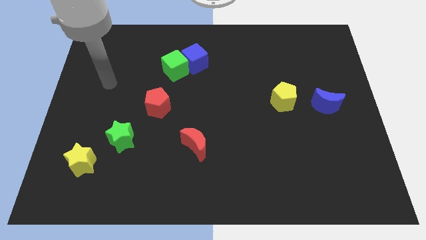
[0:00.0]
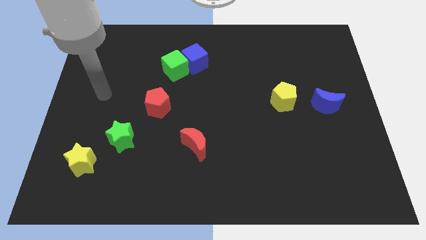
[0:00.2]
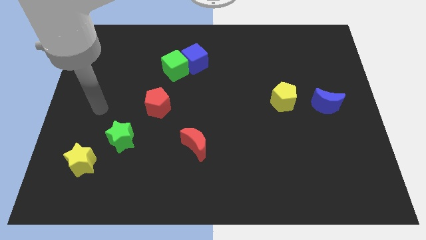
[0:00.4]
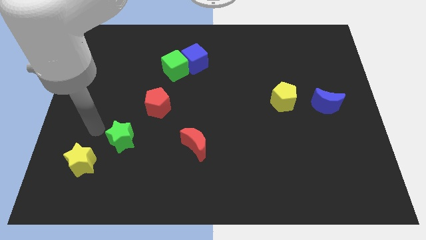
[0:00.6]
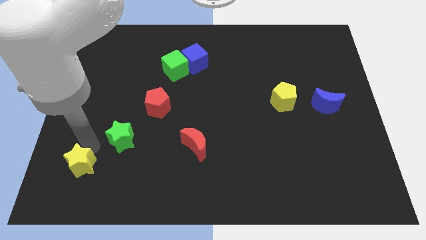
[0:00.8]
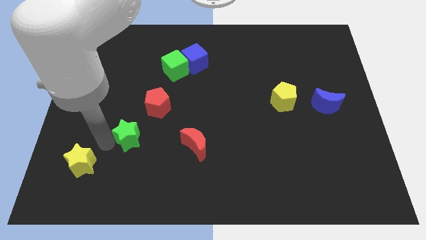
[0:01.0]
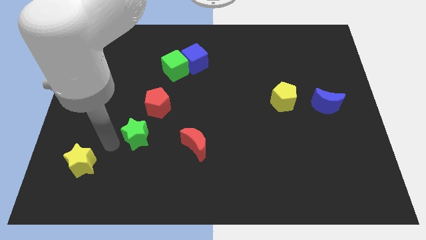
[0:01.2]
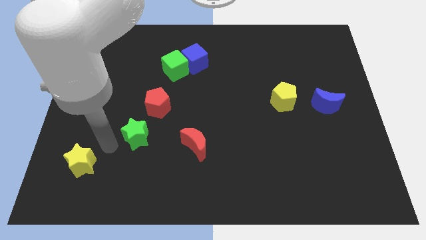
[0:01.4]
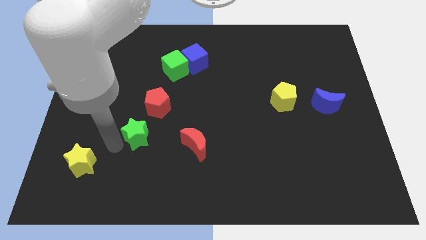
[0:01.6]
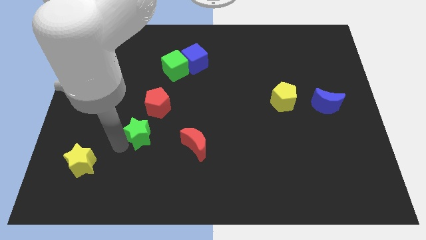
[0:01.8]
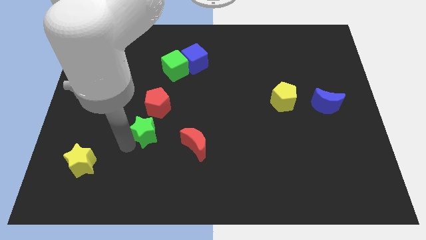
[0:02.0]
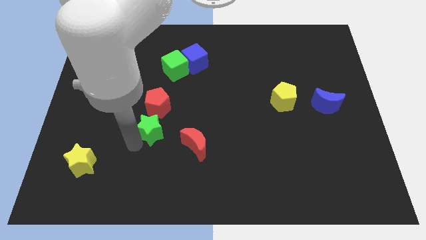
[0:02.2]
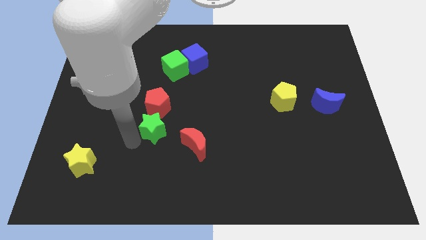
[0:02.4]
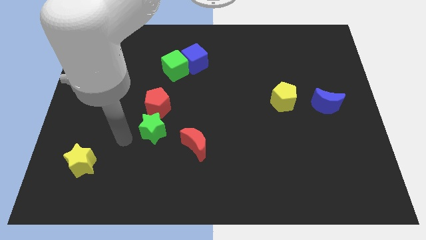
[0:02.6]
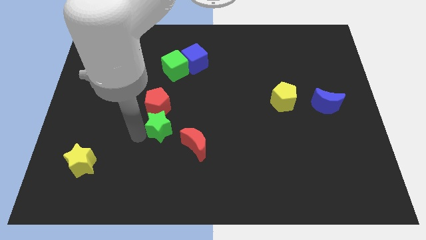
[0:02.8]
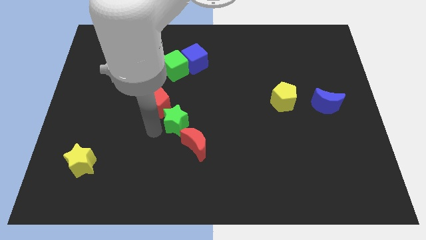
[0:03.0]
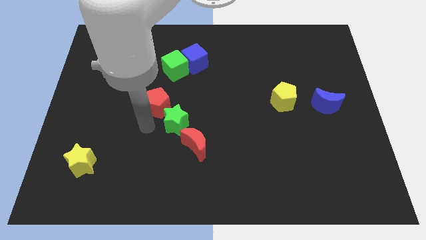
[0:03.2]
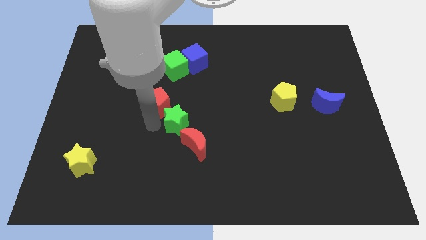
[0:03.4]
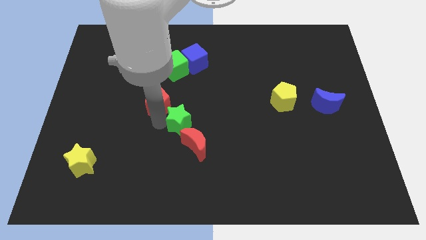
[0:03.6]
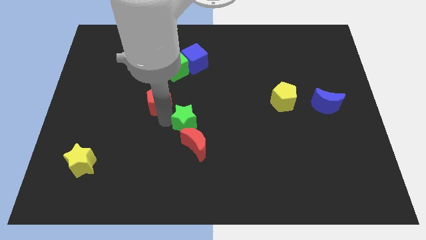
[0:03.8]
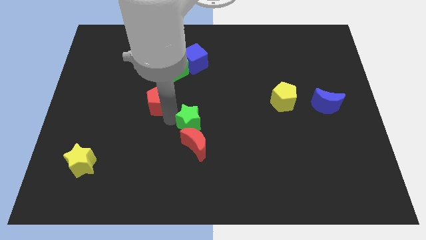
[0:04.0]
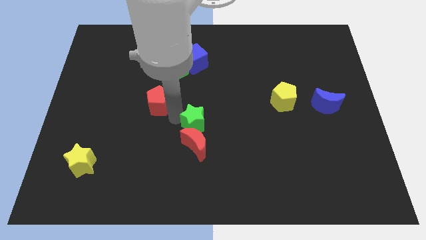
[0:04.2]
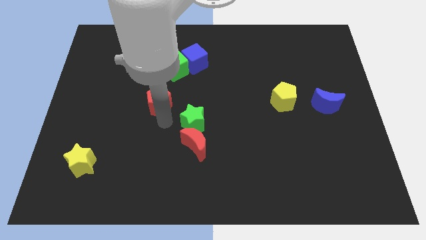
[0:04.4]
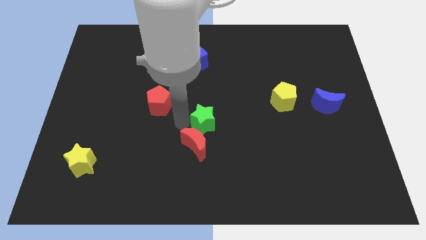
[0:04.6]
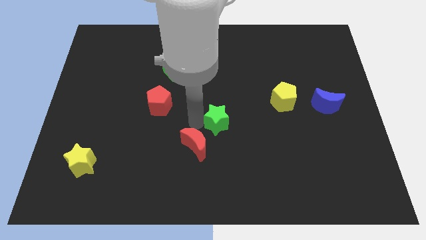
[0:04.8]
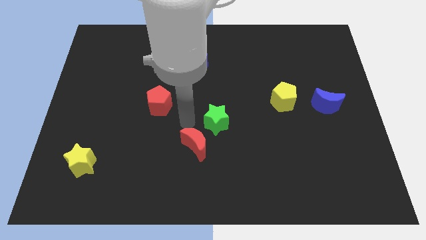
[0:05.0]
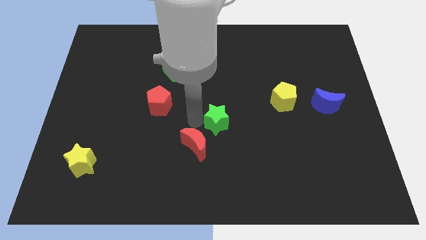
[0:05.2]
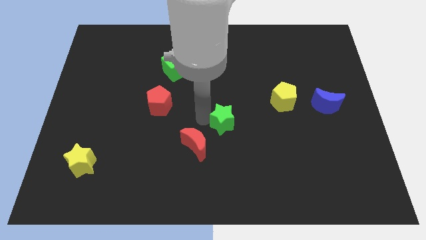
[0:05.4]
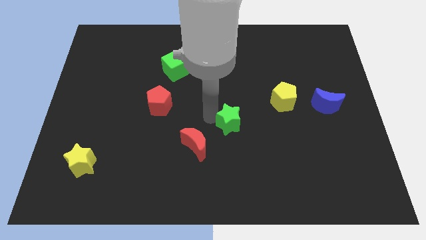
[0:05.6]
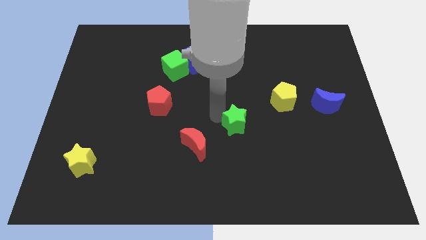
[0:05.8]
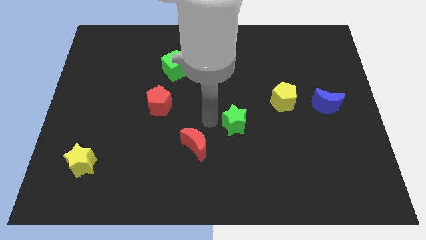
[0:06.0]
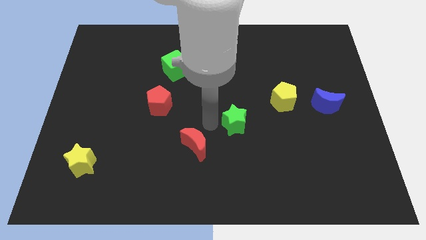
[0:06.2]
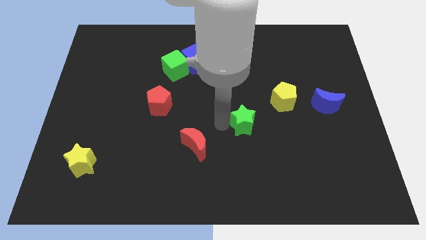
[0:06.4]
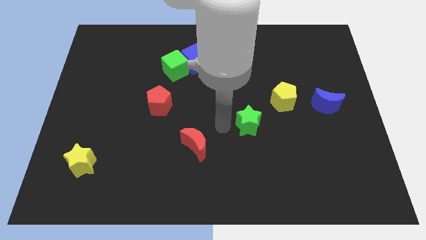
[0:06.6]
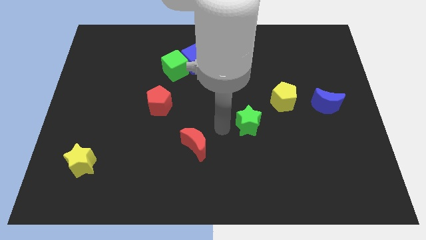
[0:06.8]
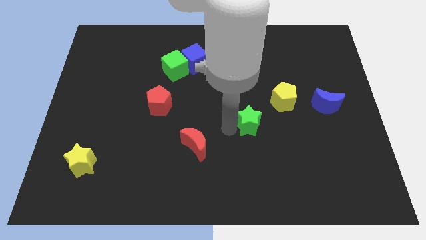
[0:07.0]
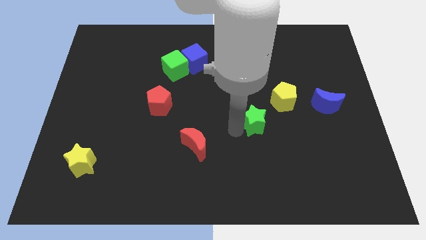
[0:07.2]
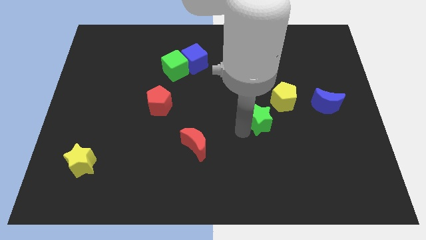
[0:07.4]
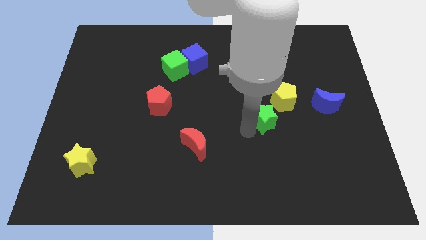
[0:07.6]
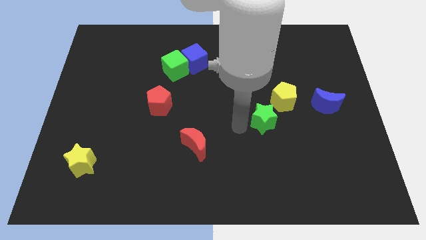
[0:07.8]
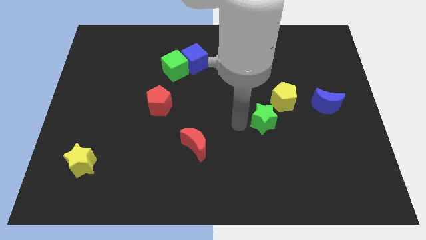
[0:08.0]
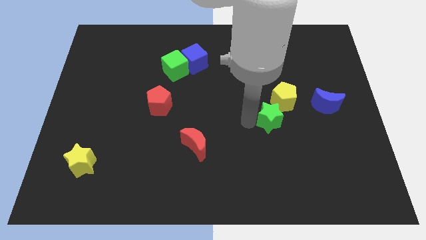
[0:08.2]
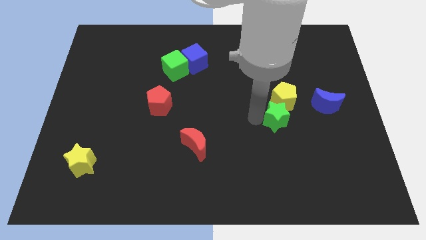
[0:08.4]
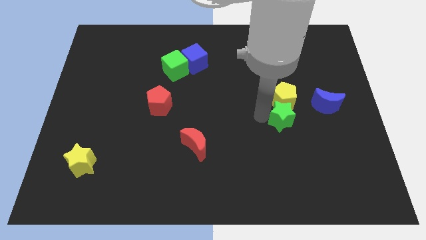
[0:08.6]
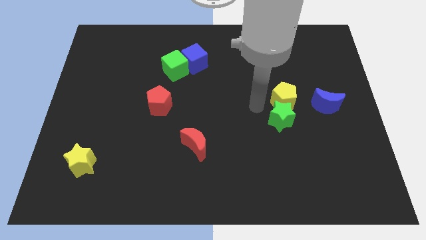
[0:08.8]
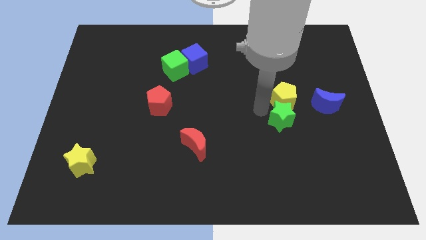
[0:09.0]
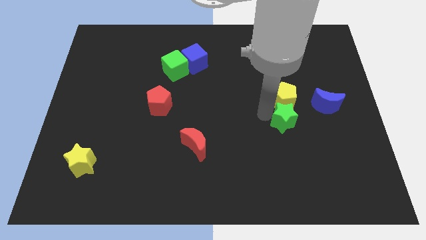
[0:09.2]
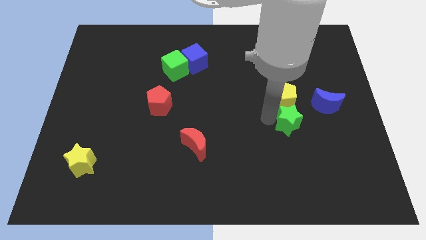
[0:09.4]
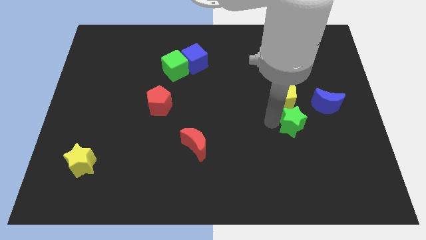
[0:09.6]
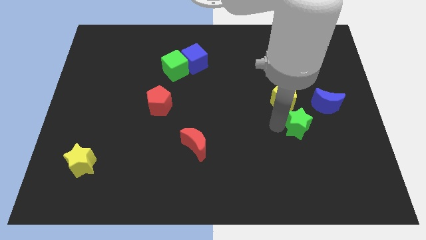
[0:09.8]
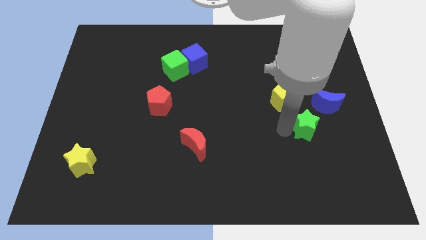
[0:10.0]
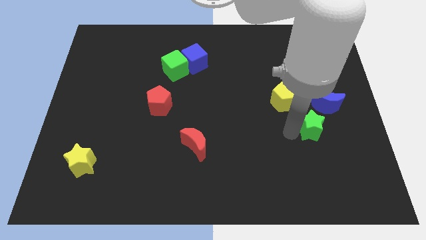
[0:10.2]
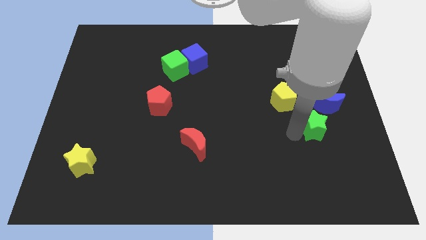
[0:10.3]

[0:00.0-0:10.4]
put the green star below the blue moon

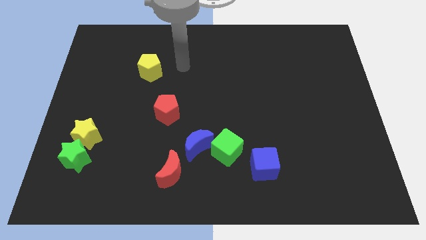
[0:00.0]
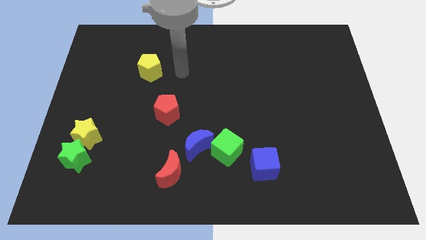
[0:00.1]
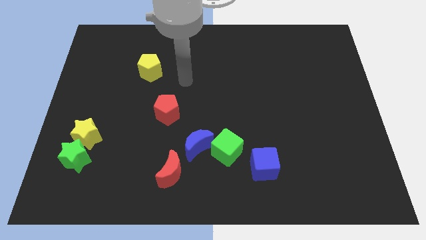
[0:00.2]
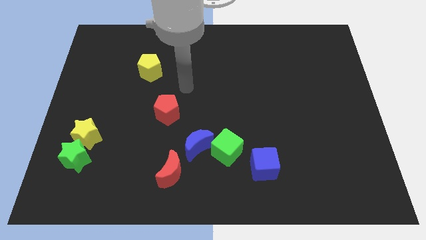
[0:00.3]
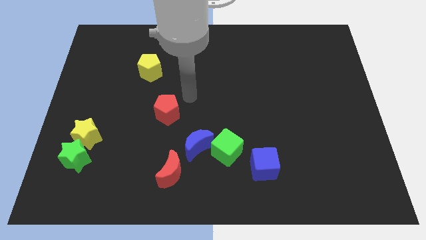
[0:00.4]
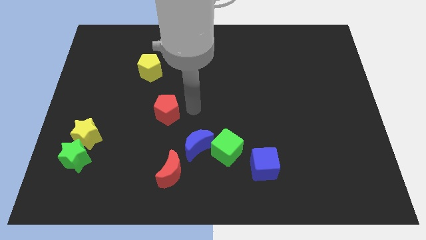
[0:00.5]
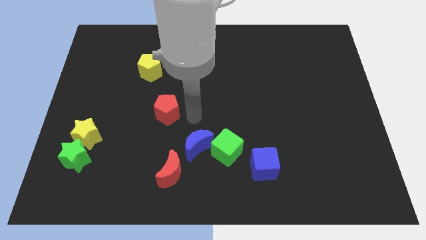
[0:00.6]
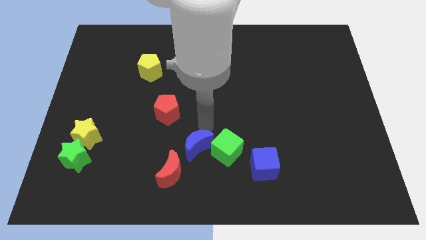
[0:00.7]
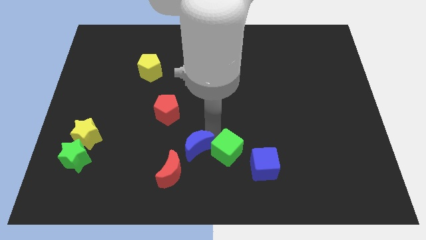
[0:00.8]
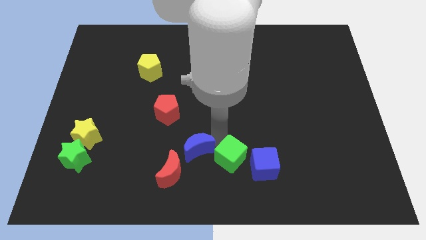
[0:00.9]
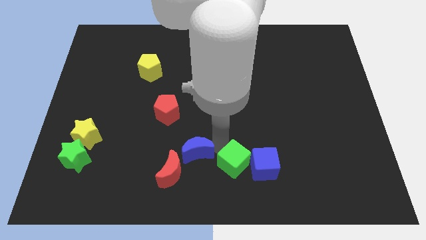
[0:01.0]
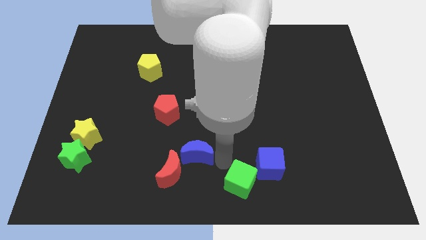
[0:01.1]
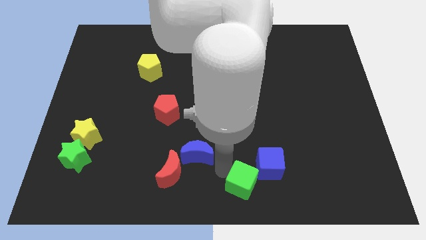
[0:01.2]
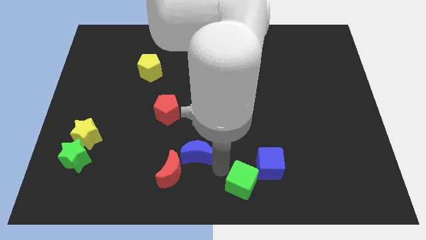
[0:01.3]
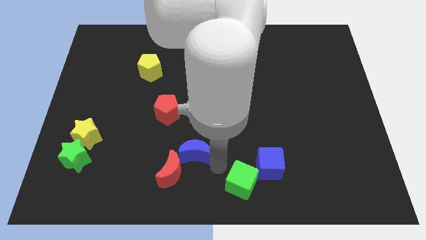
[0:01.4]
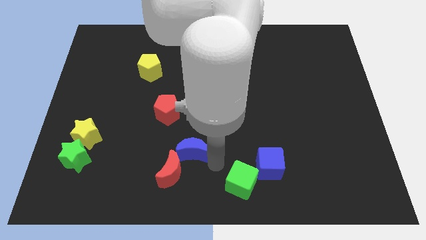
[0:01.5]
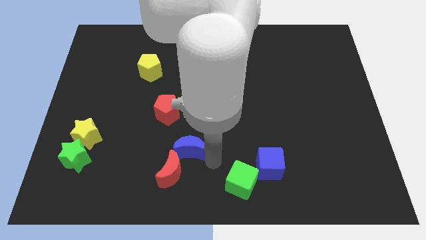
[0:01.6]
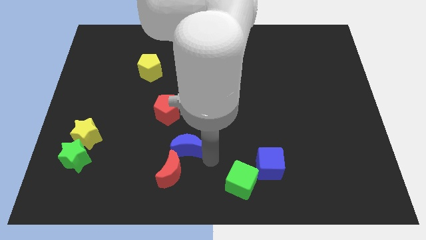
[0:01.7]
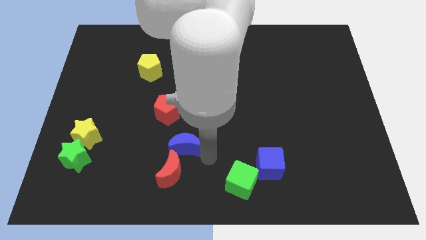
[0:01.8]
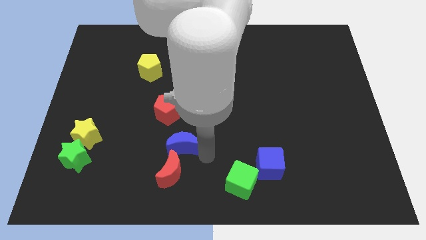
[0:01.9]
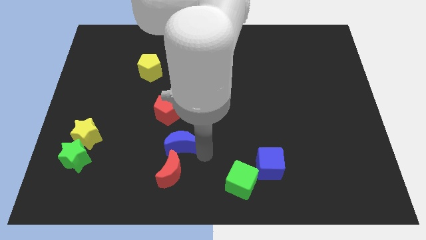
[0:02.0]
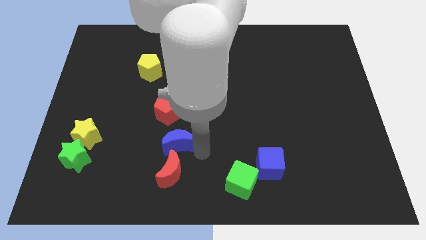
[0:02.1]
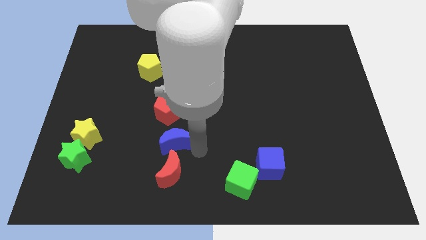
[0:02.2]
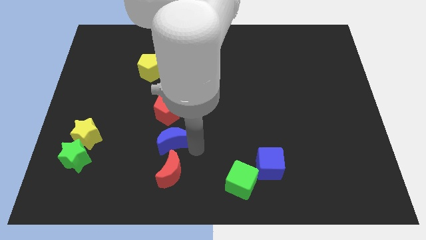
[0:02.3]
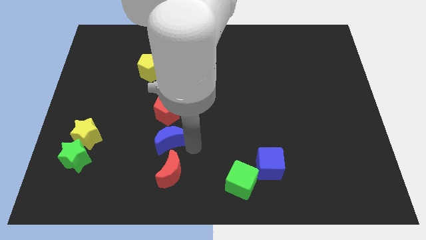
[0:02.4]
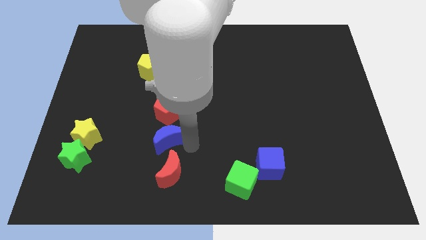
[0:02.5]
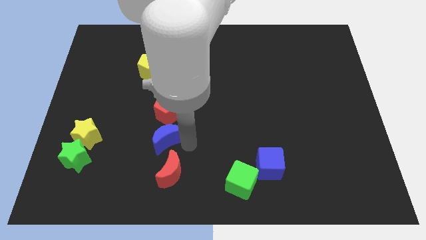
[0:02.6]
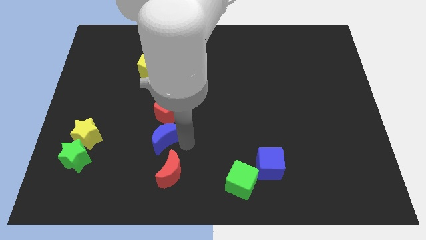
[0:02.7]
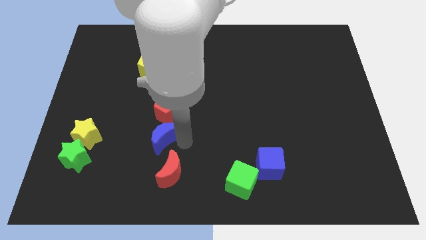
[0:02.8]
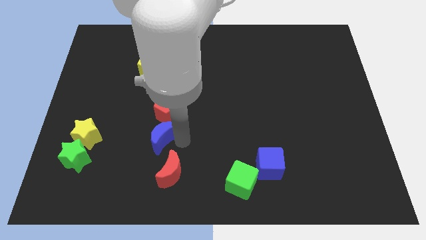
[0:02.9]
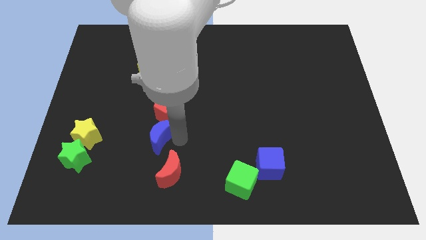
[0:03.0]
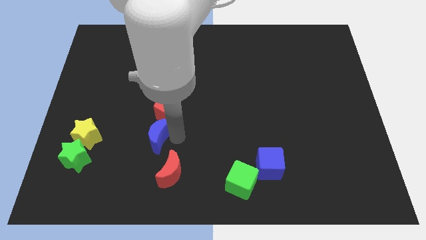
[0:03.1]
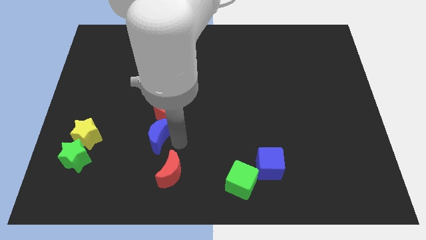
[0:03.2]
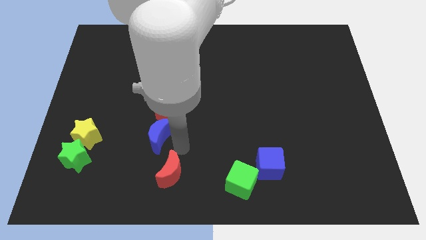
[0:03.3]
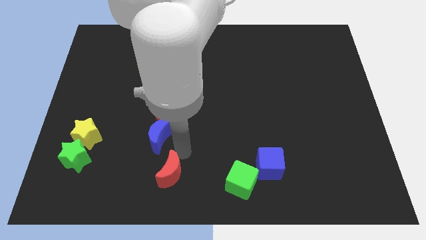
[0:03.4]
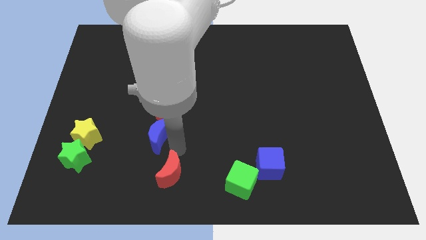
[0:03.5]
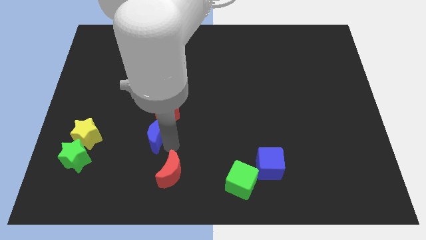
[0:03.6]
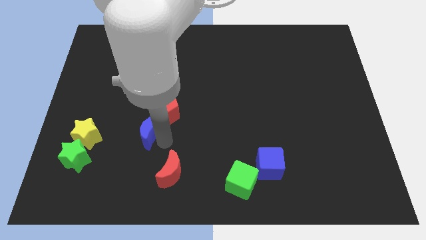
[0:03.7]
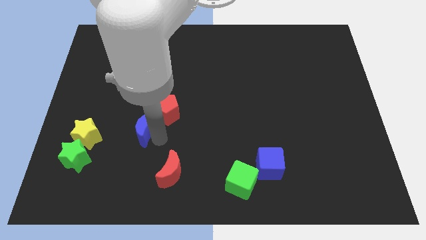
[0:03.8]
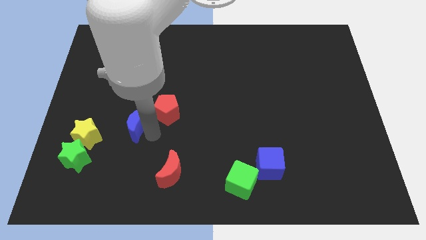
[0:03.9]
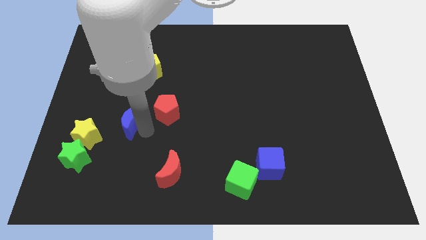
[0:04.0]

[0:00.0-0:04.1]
push the blue moon to the top right side of the yellow star
